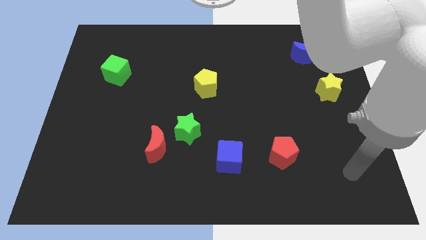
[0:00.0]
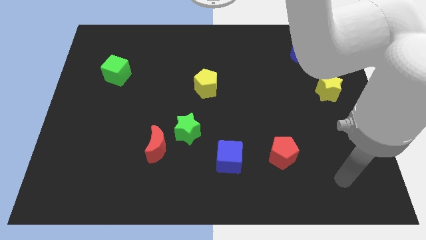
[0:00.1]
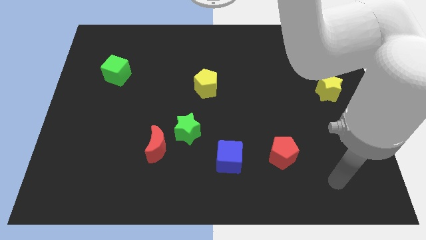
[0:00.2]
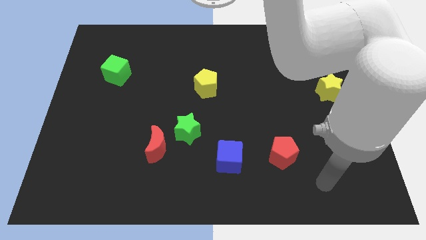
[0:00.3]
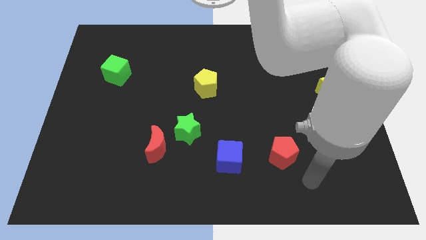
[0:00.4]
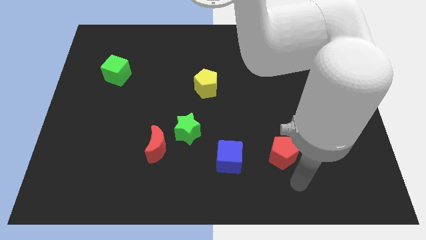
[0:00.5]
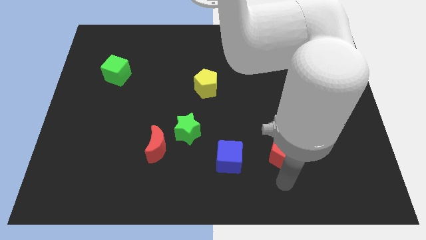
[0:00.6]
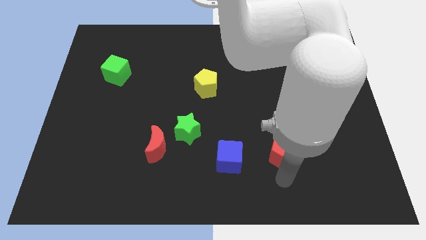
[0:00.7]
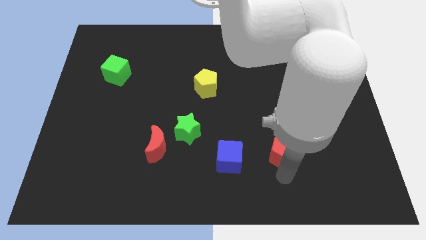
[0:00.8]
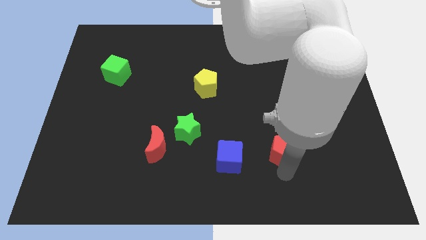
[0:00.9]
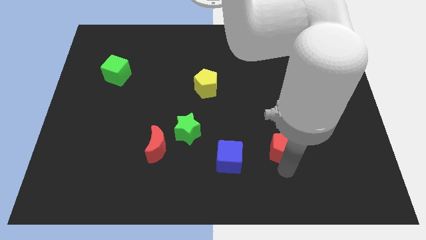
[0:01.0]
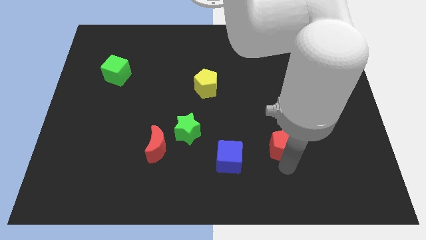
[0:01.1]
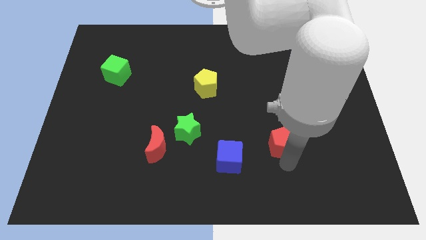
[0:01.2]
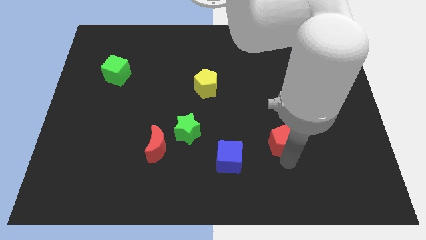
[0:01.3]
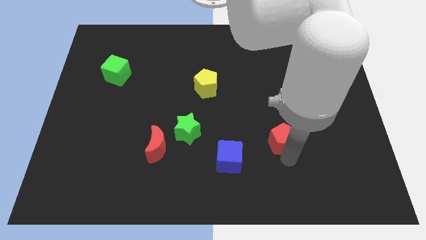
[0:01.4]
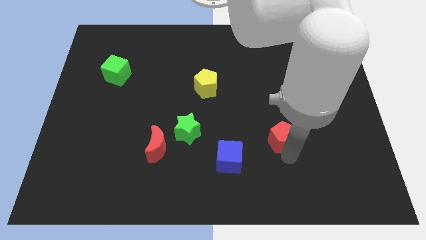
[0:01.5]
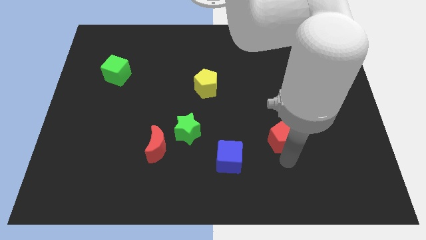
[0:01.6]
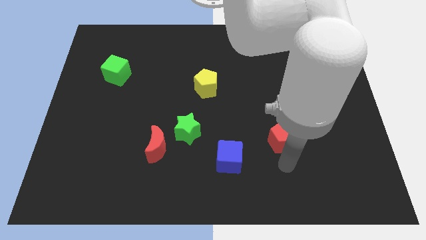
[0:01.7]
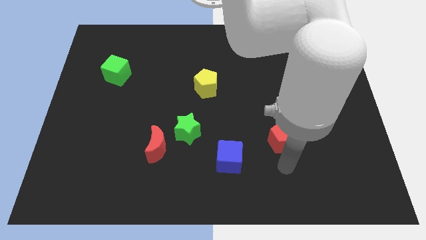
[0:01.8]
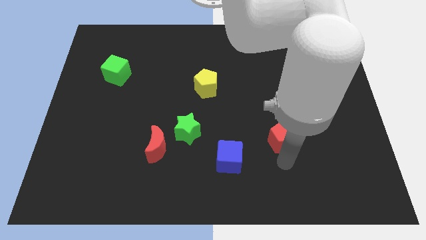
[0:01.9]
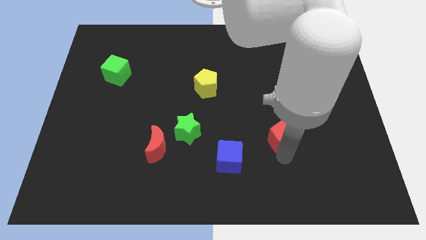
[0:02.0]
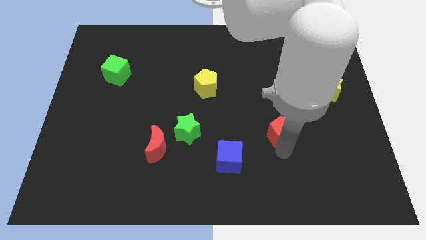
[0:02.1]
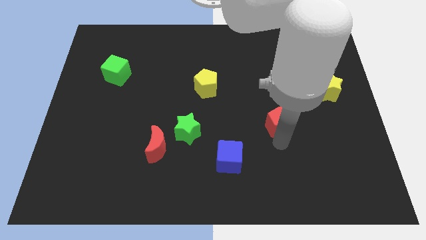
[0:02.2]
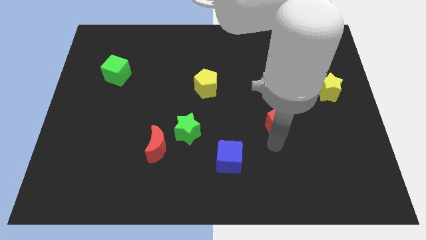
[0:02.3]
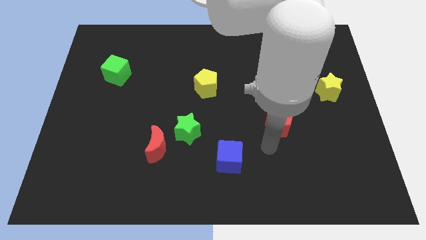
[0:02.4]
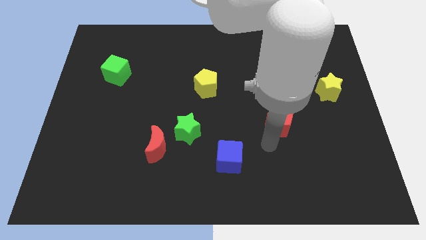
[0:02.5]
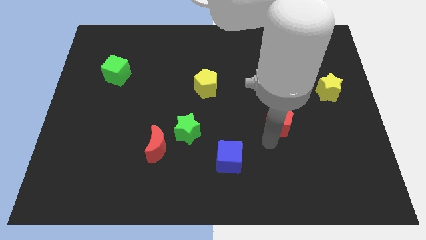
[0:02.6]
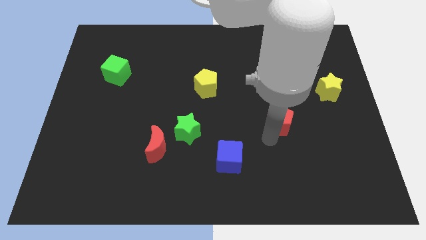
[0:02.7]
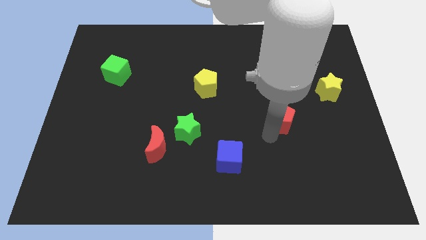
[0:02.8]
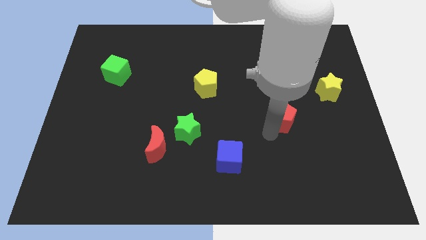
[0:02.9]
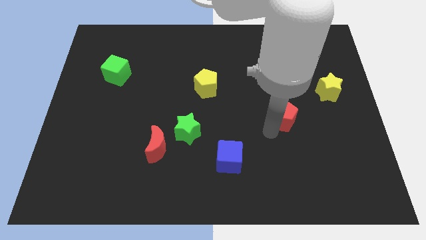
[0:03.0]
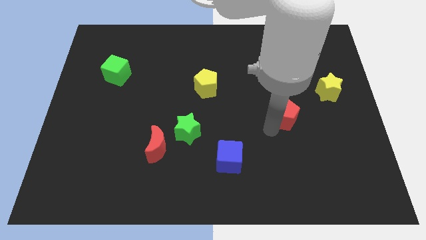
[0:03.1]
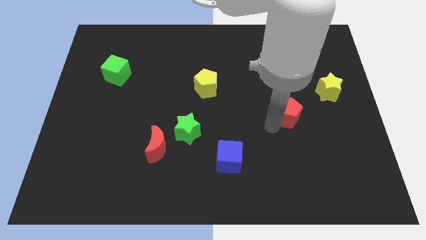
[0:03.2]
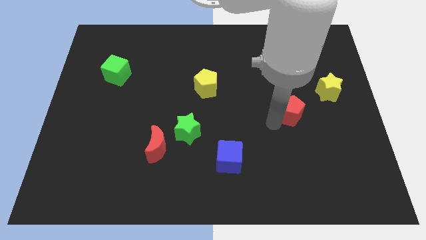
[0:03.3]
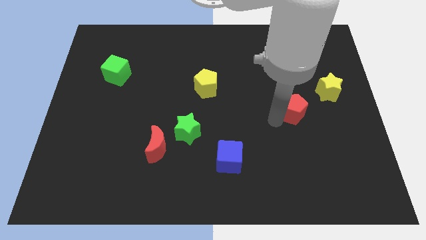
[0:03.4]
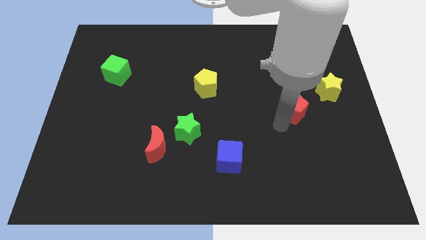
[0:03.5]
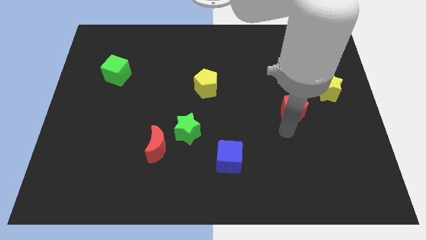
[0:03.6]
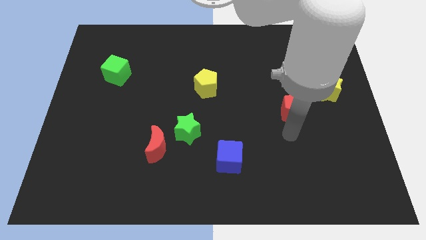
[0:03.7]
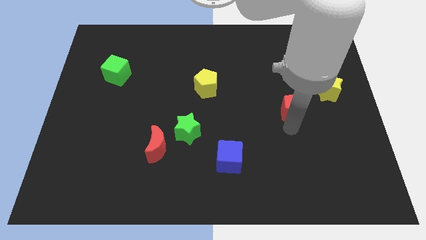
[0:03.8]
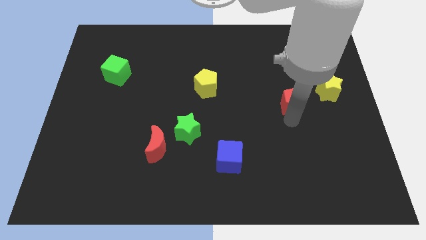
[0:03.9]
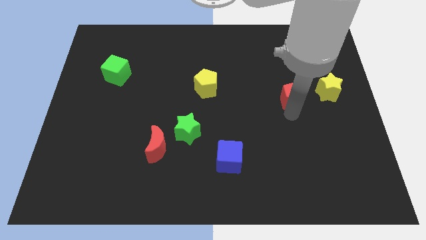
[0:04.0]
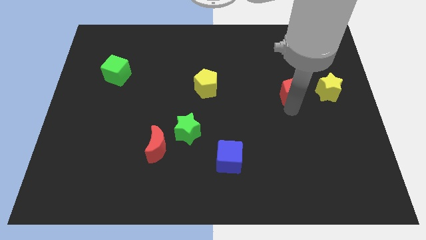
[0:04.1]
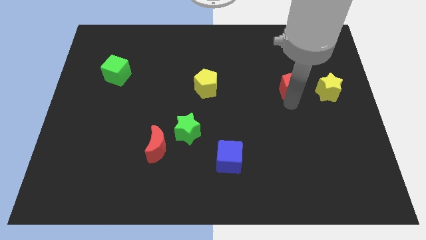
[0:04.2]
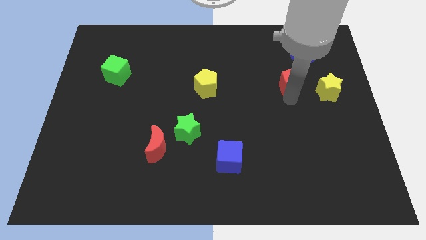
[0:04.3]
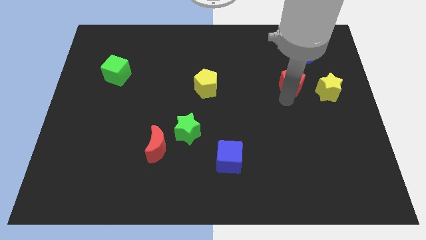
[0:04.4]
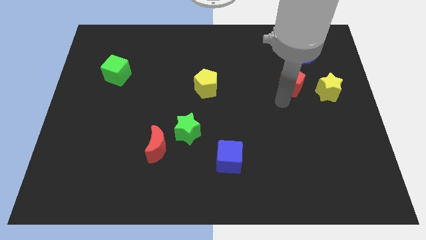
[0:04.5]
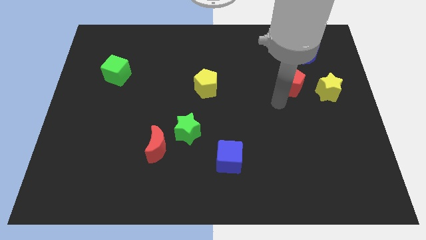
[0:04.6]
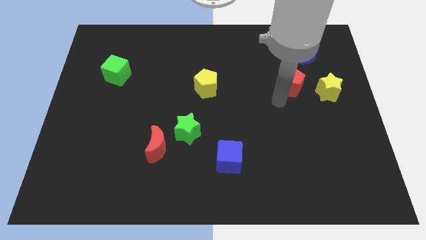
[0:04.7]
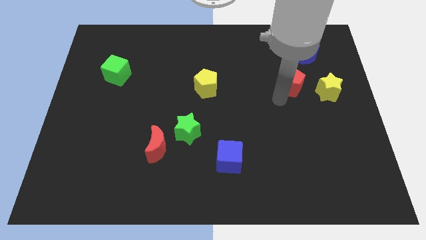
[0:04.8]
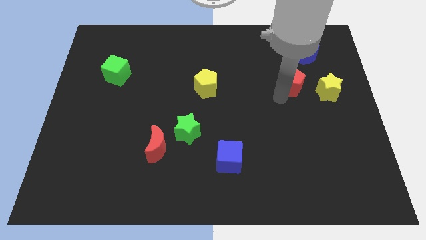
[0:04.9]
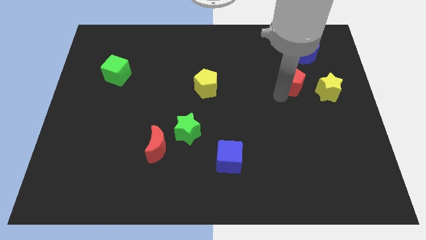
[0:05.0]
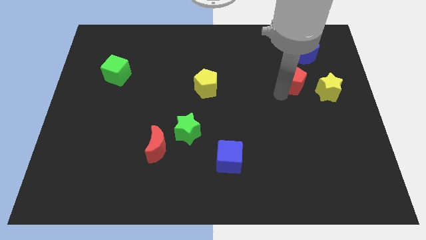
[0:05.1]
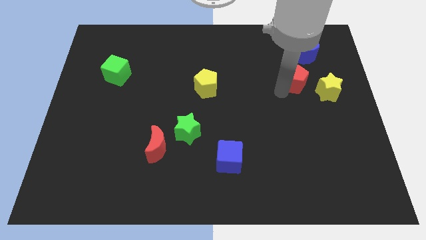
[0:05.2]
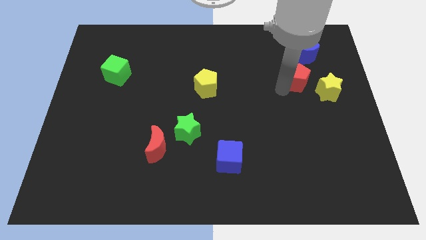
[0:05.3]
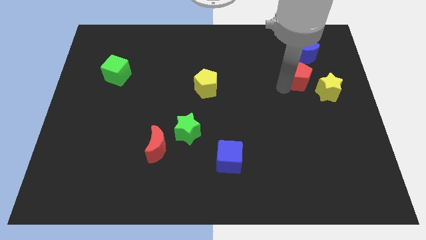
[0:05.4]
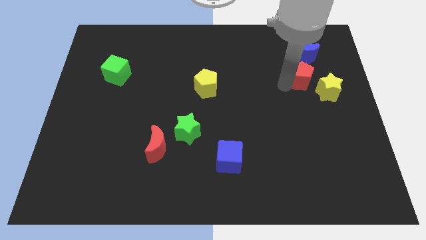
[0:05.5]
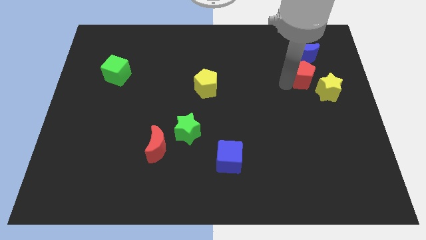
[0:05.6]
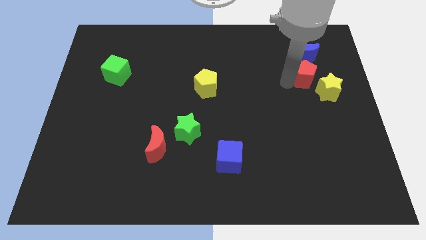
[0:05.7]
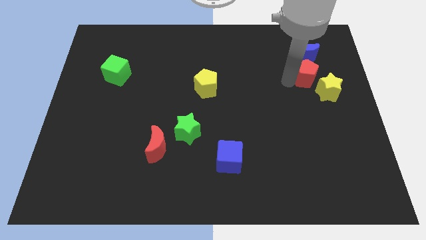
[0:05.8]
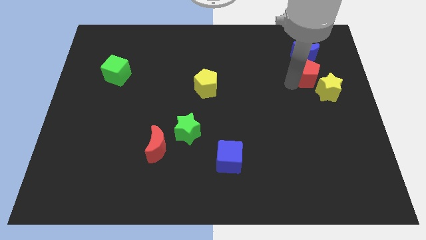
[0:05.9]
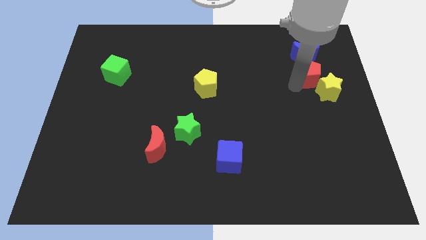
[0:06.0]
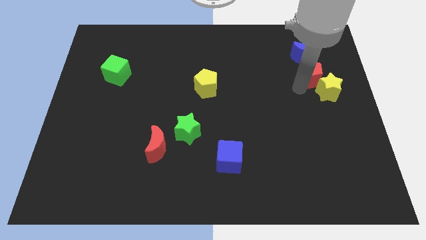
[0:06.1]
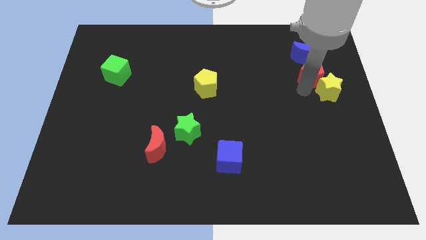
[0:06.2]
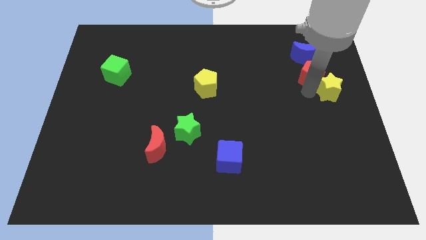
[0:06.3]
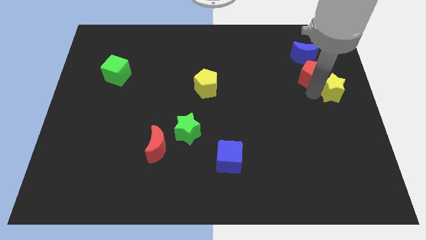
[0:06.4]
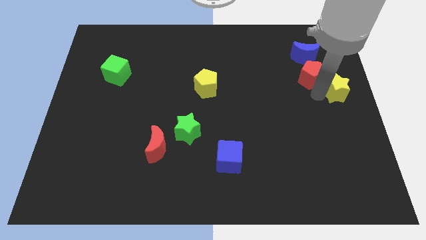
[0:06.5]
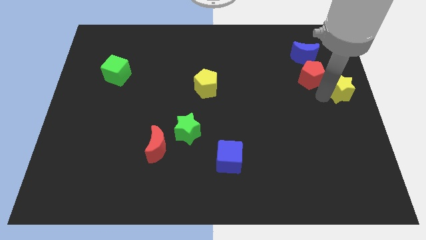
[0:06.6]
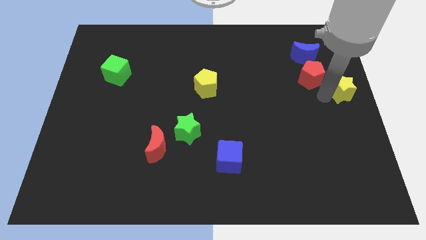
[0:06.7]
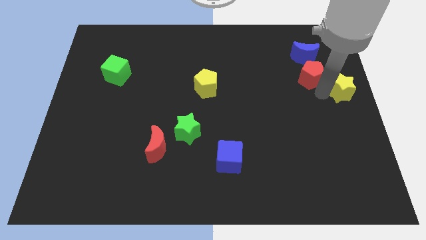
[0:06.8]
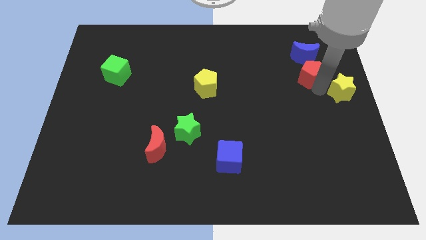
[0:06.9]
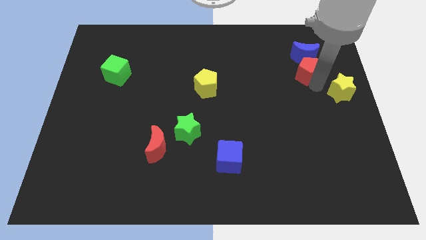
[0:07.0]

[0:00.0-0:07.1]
put the red pentagon to the blue moon

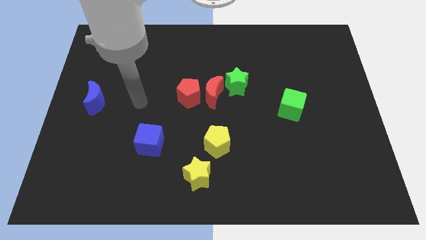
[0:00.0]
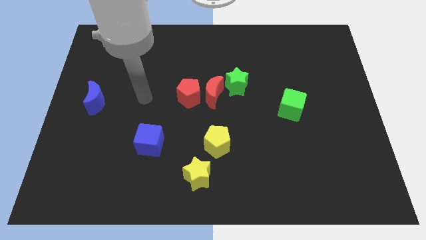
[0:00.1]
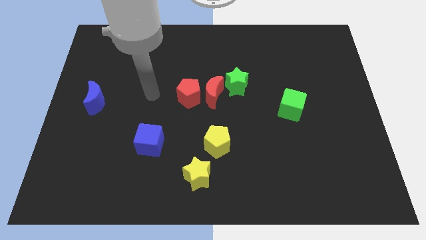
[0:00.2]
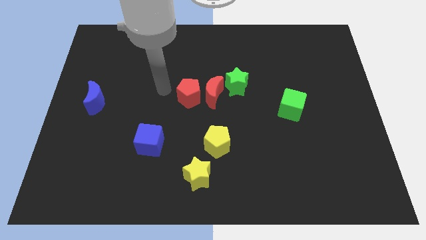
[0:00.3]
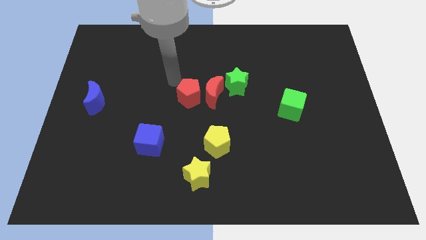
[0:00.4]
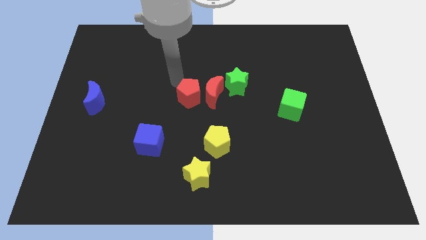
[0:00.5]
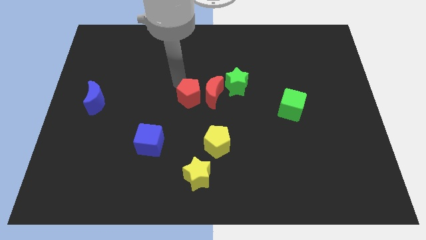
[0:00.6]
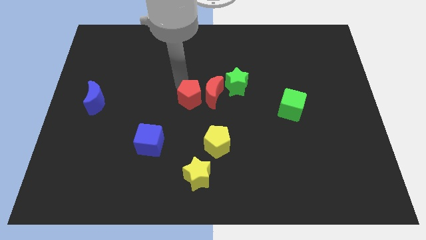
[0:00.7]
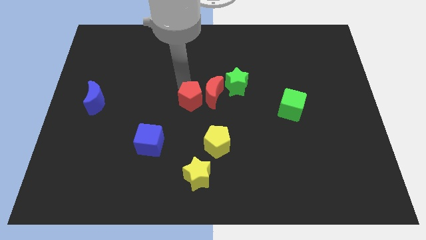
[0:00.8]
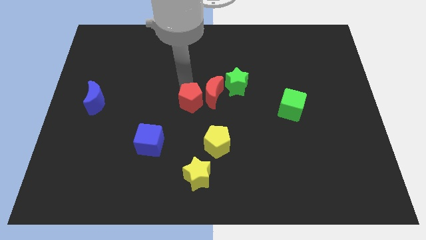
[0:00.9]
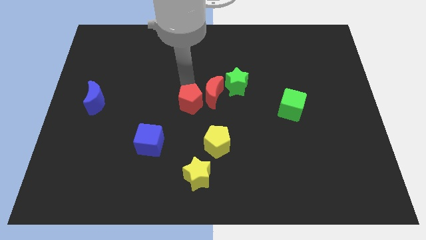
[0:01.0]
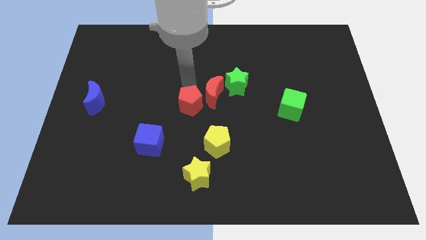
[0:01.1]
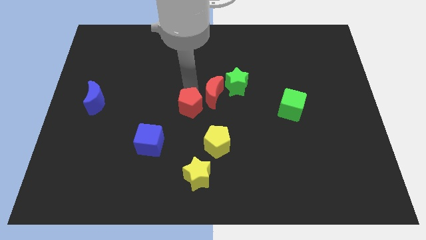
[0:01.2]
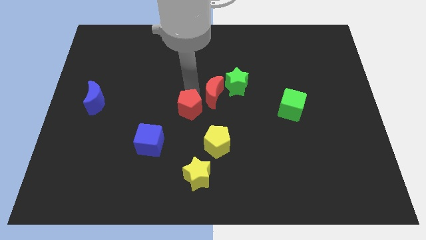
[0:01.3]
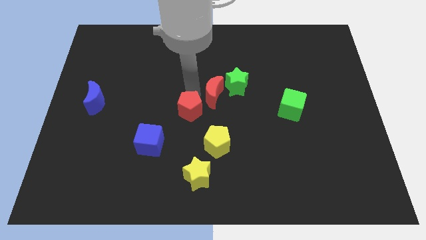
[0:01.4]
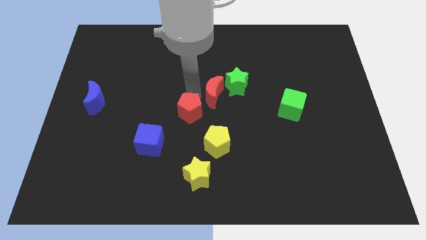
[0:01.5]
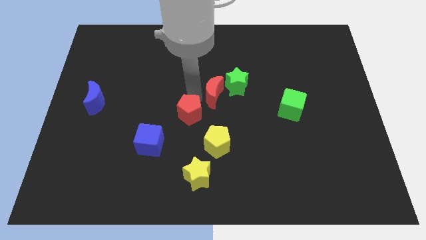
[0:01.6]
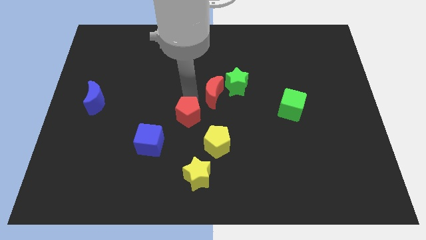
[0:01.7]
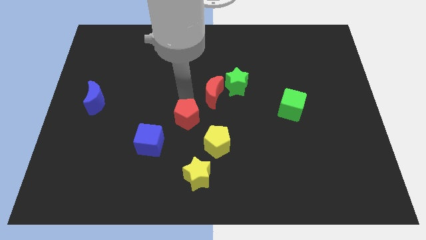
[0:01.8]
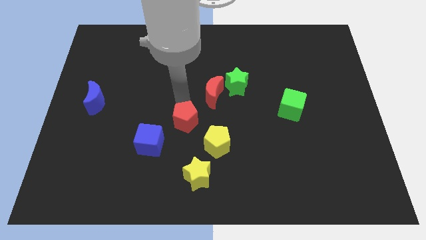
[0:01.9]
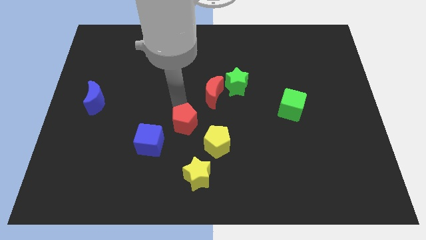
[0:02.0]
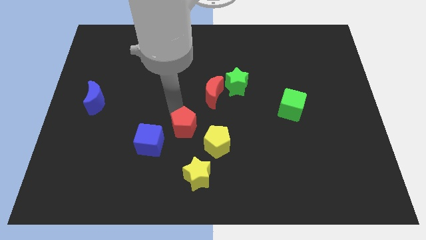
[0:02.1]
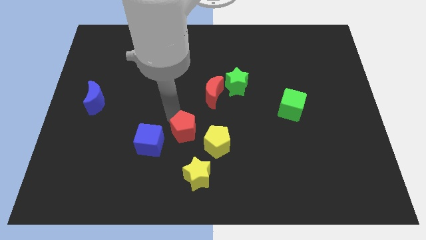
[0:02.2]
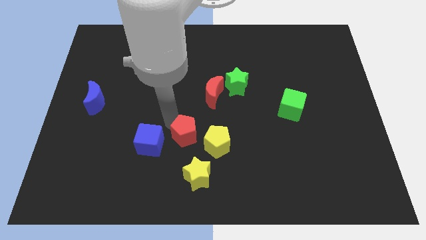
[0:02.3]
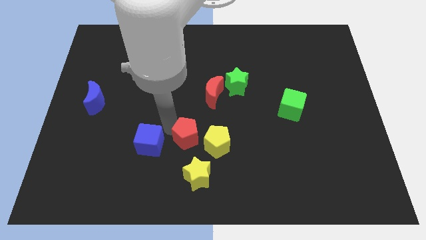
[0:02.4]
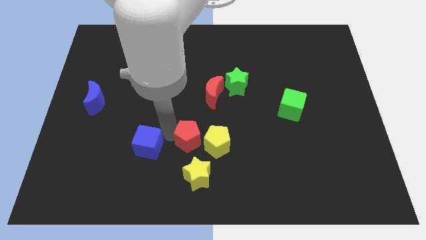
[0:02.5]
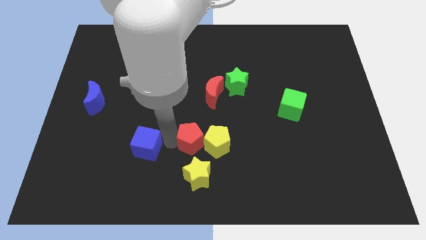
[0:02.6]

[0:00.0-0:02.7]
put the red pentagon close to the yellow pentagon
